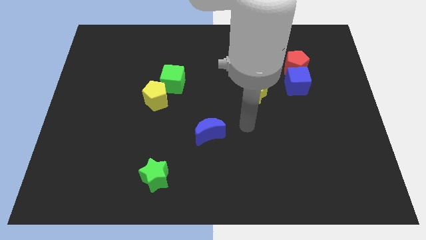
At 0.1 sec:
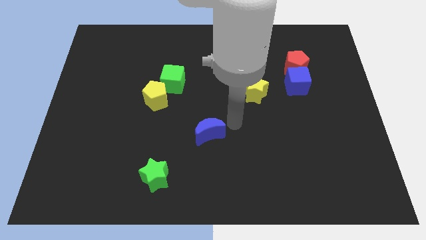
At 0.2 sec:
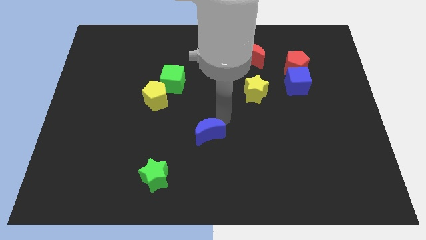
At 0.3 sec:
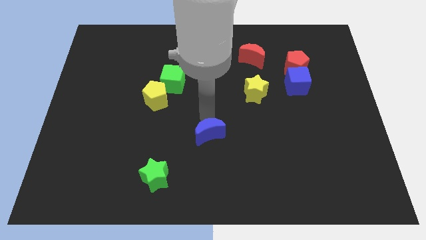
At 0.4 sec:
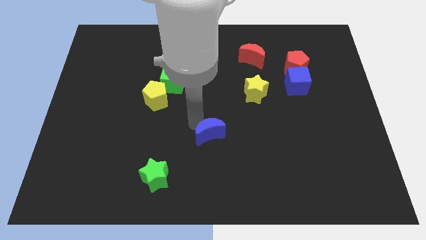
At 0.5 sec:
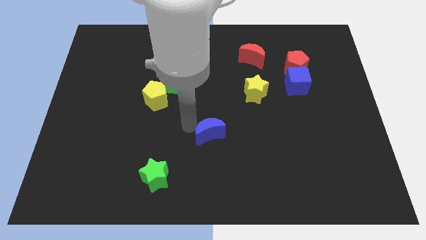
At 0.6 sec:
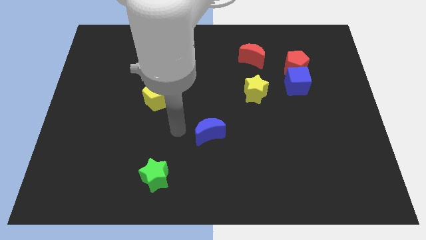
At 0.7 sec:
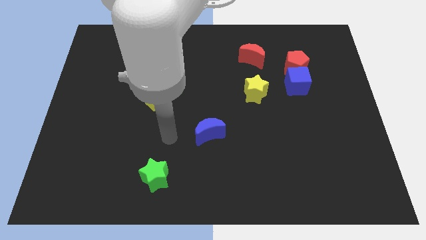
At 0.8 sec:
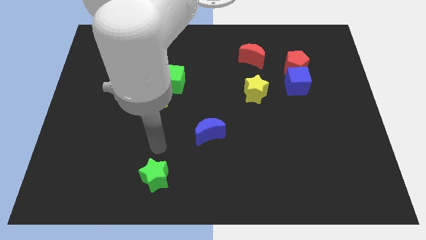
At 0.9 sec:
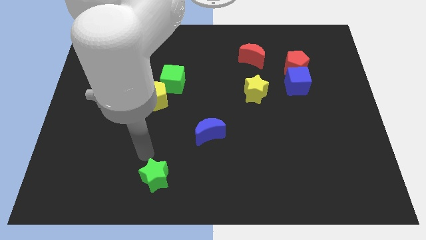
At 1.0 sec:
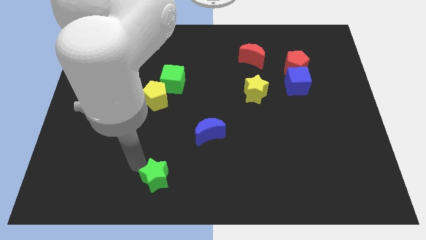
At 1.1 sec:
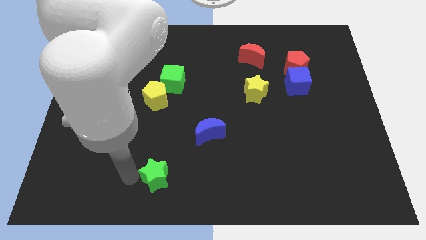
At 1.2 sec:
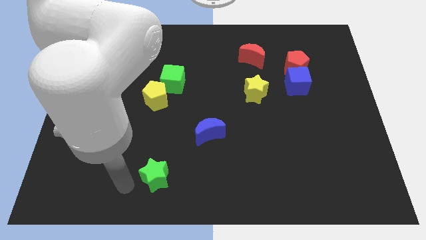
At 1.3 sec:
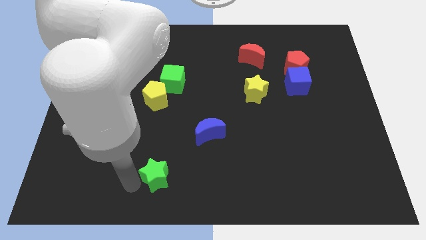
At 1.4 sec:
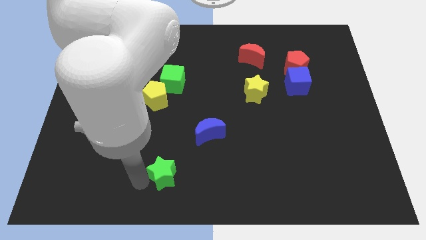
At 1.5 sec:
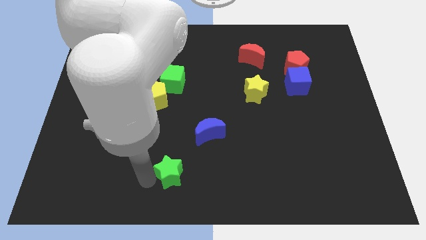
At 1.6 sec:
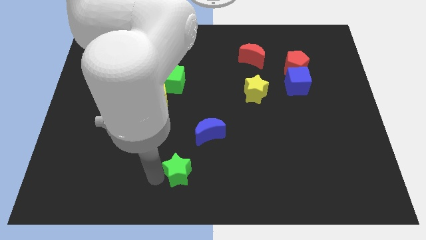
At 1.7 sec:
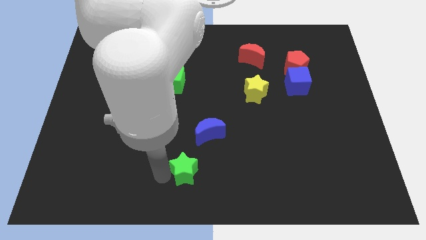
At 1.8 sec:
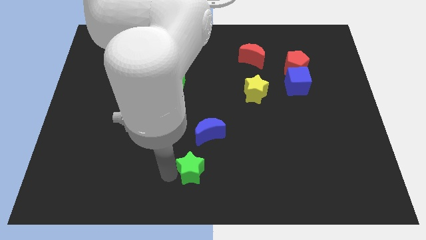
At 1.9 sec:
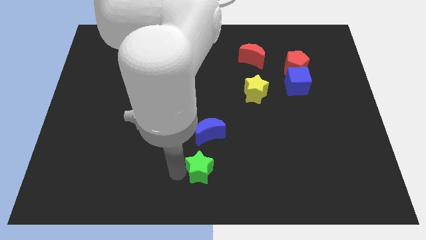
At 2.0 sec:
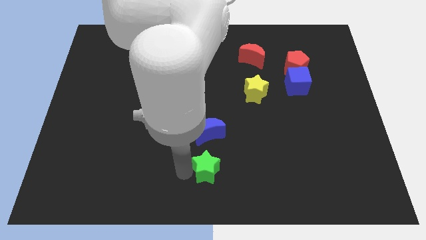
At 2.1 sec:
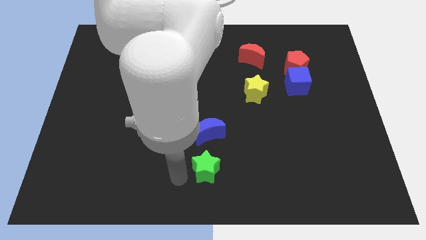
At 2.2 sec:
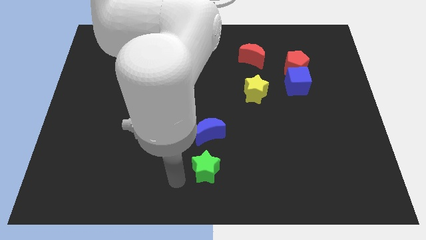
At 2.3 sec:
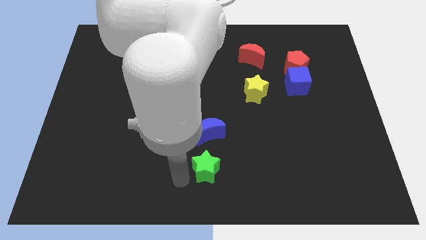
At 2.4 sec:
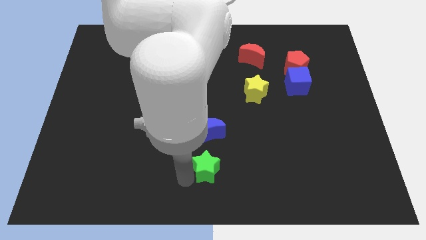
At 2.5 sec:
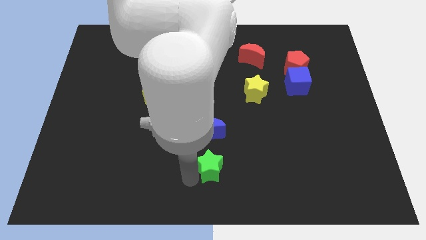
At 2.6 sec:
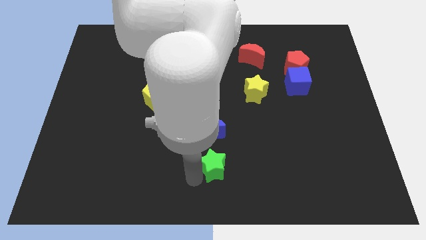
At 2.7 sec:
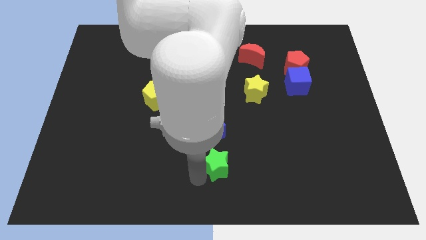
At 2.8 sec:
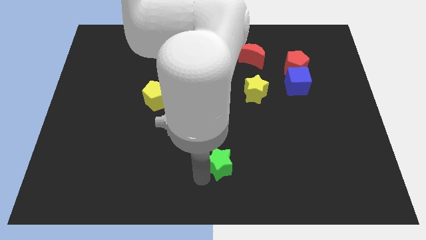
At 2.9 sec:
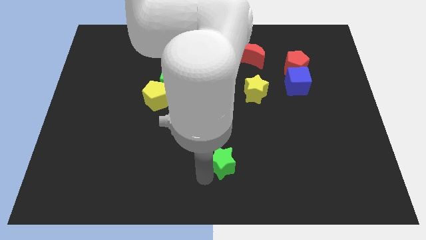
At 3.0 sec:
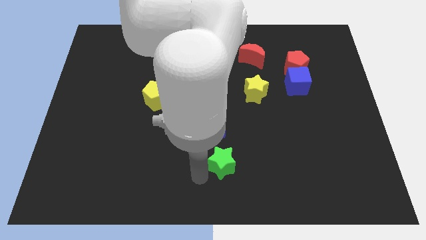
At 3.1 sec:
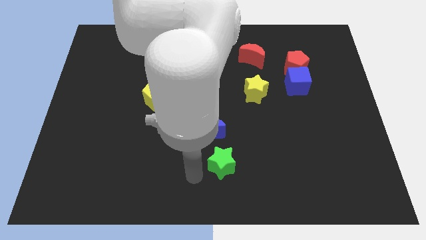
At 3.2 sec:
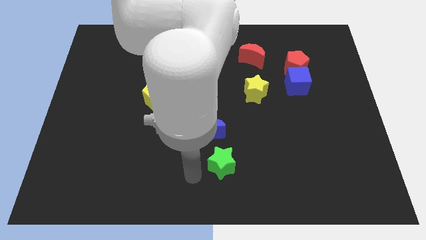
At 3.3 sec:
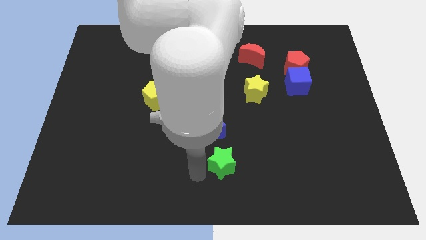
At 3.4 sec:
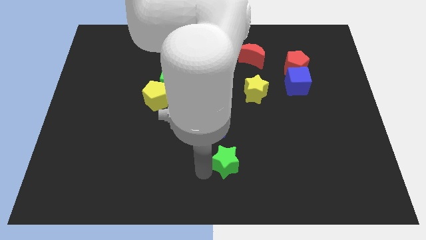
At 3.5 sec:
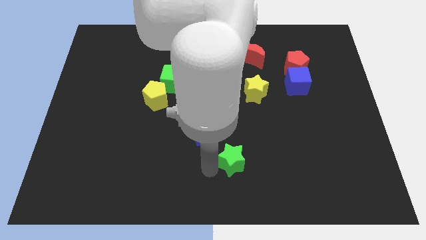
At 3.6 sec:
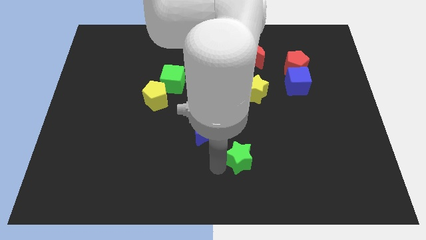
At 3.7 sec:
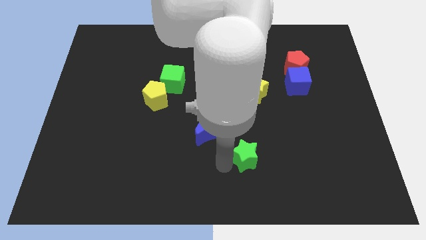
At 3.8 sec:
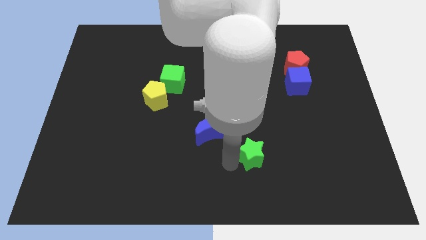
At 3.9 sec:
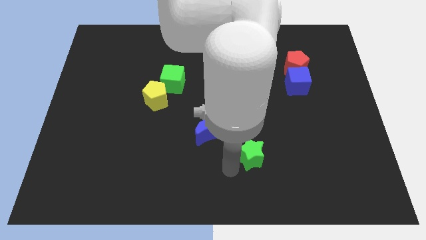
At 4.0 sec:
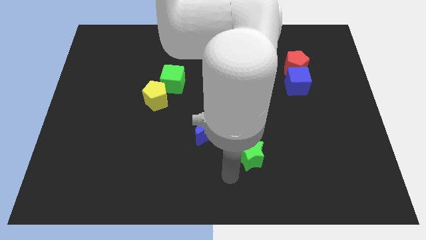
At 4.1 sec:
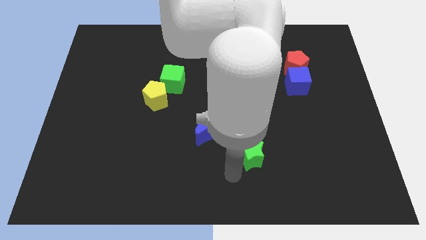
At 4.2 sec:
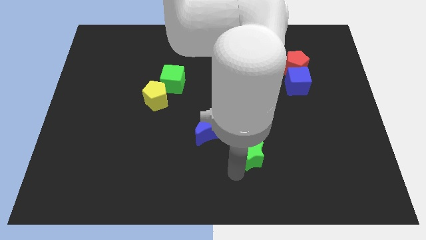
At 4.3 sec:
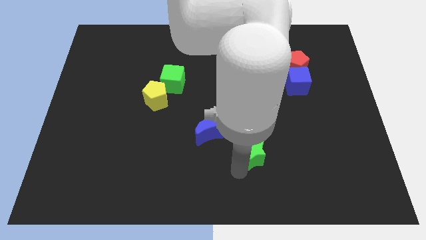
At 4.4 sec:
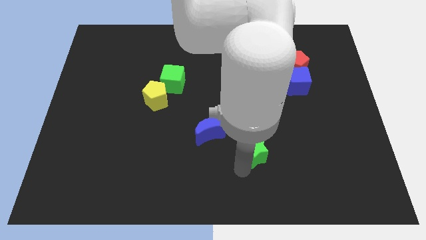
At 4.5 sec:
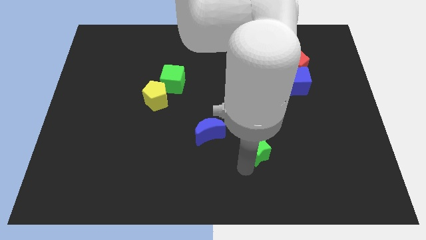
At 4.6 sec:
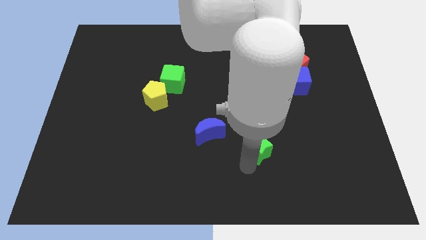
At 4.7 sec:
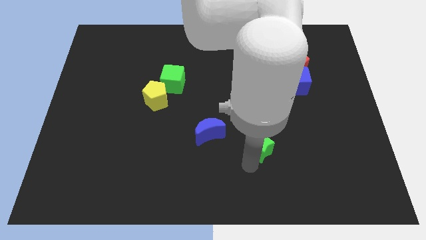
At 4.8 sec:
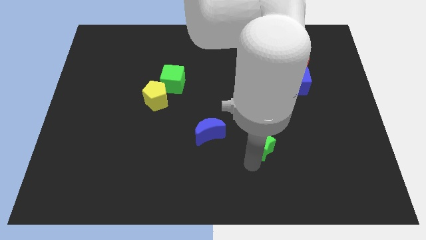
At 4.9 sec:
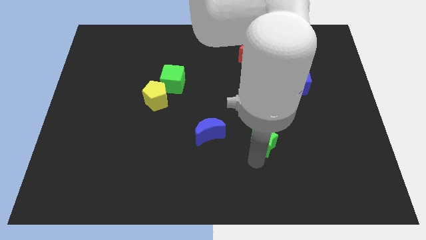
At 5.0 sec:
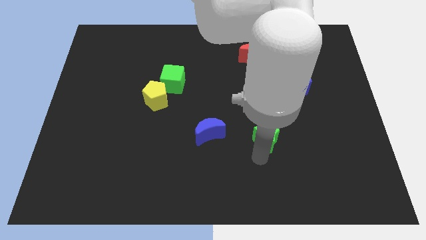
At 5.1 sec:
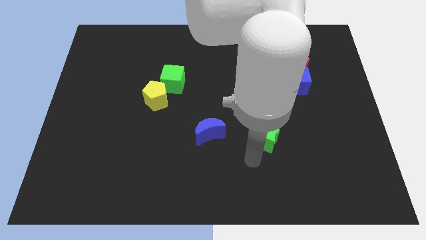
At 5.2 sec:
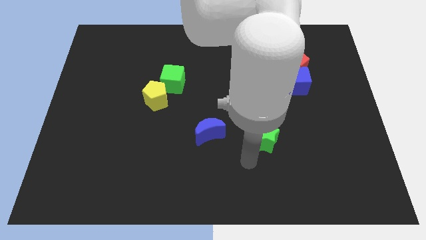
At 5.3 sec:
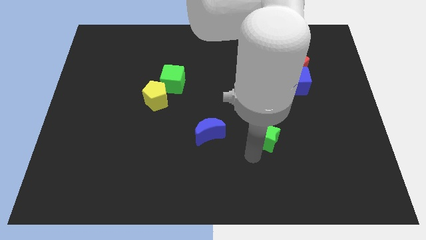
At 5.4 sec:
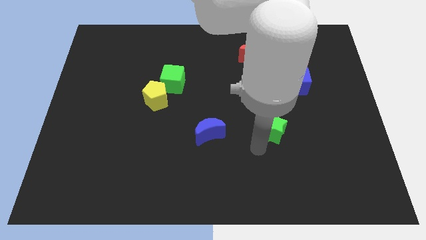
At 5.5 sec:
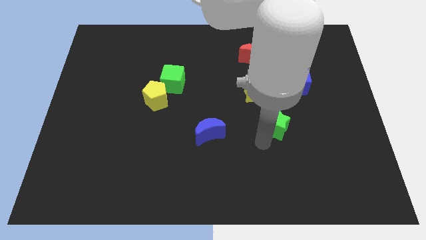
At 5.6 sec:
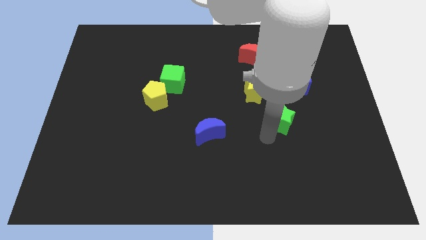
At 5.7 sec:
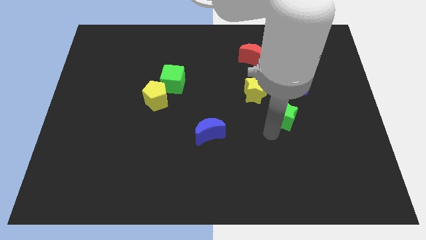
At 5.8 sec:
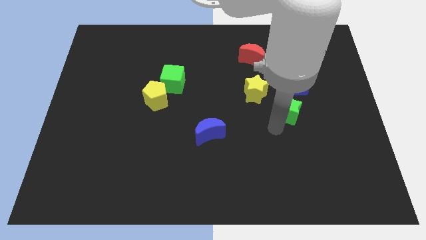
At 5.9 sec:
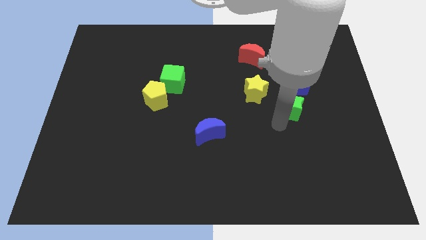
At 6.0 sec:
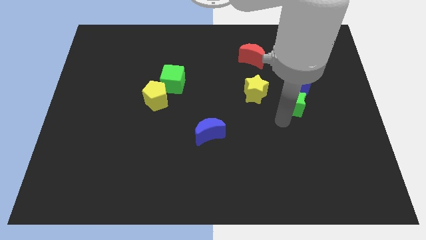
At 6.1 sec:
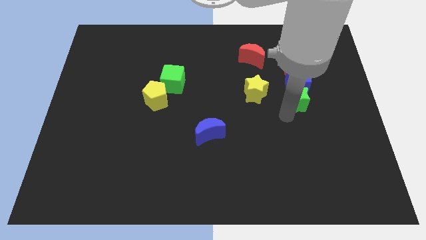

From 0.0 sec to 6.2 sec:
put the green star next to the blue cube
